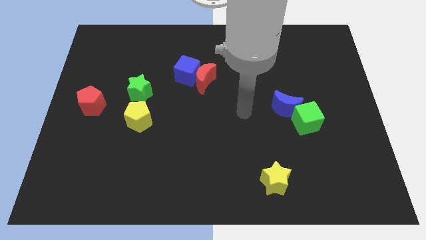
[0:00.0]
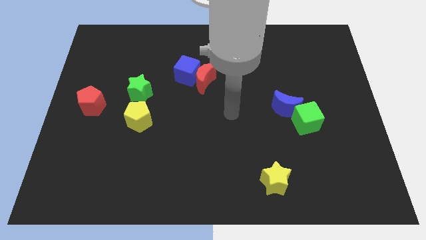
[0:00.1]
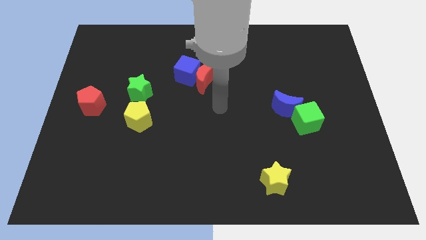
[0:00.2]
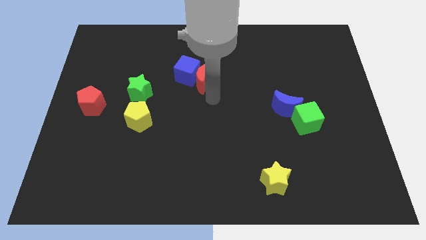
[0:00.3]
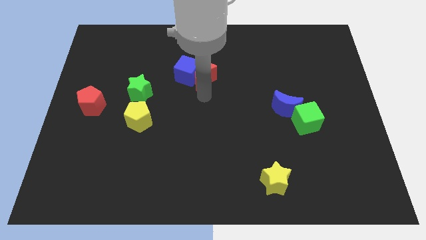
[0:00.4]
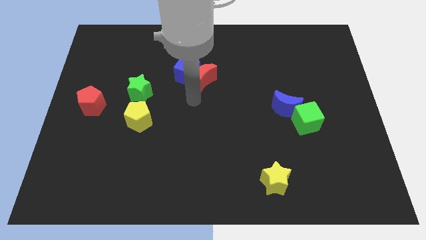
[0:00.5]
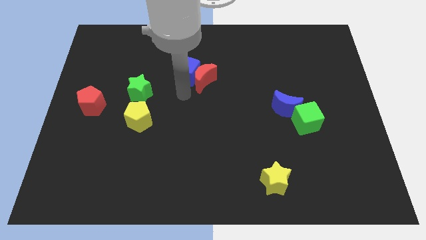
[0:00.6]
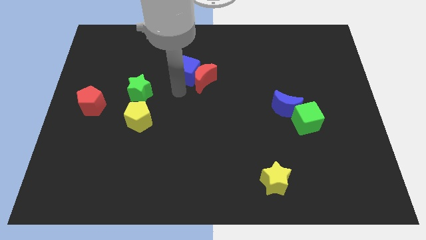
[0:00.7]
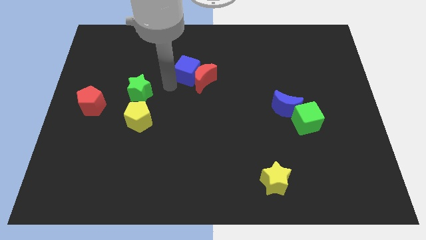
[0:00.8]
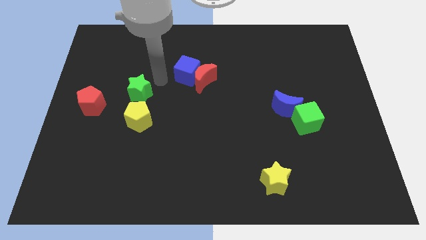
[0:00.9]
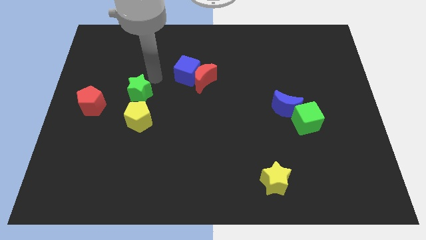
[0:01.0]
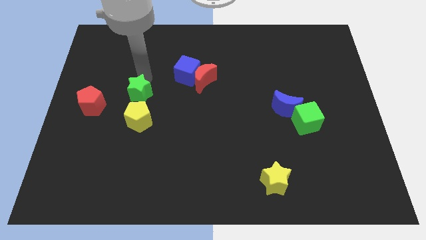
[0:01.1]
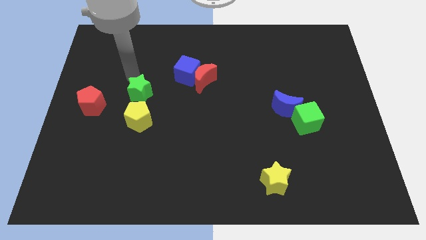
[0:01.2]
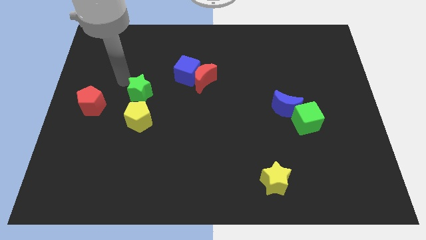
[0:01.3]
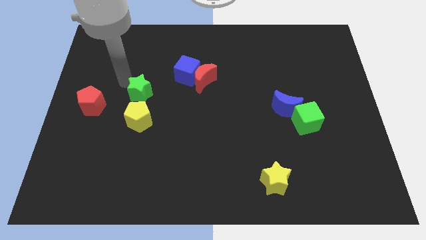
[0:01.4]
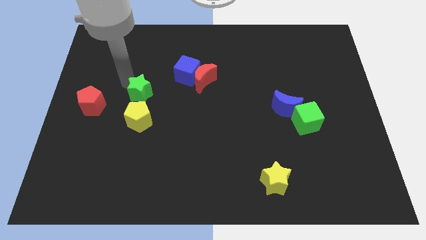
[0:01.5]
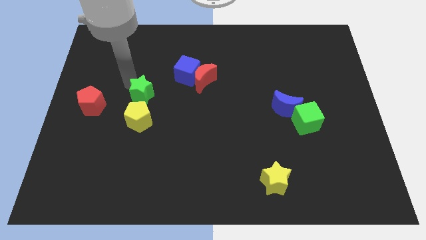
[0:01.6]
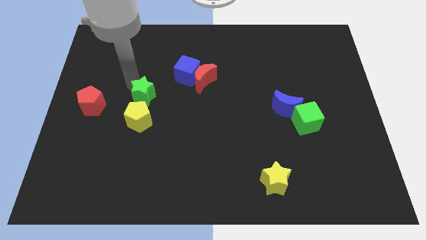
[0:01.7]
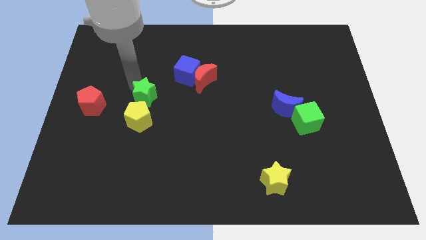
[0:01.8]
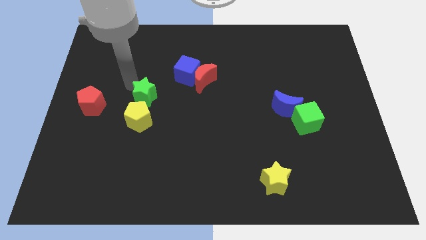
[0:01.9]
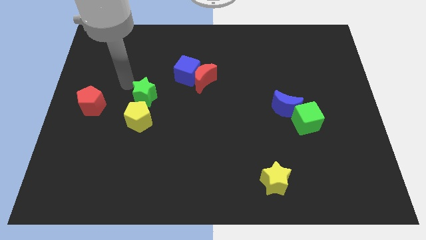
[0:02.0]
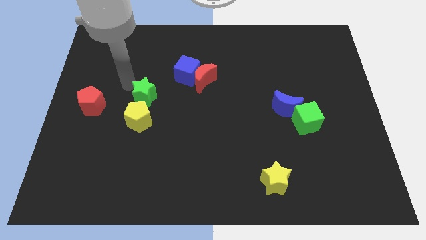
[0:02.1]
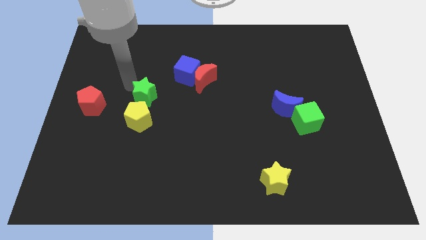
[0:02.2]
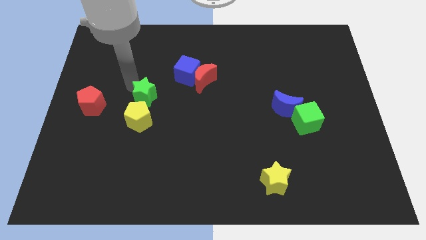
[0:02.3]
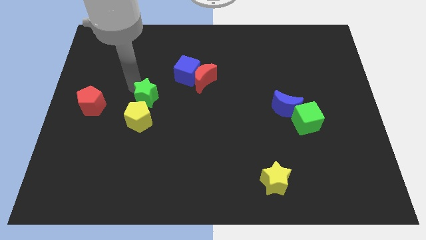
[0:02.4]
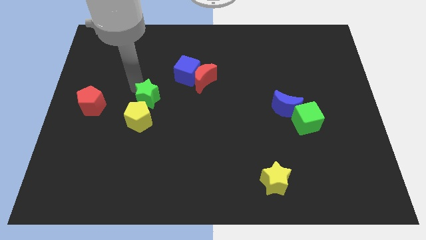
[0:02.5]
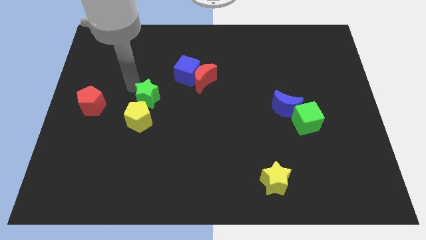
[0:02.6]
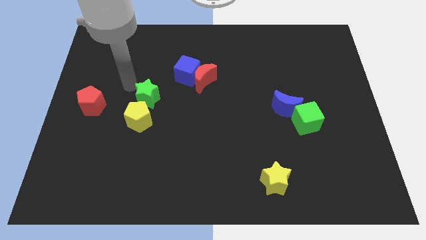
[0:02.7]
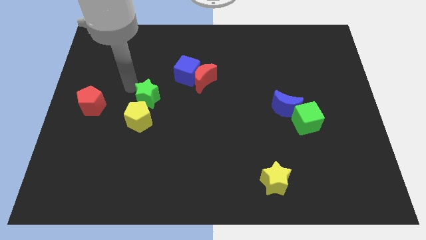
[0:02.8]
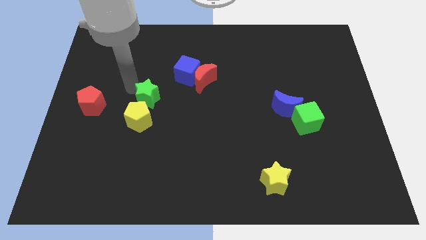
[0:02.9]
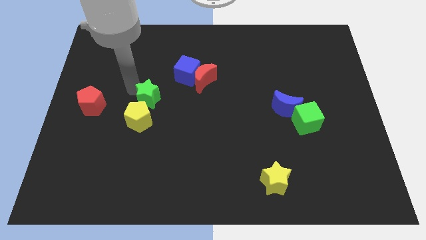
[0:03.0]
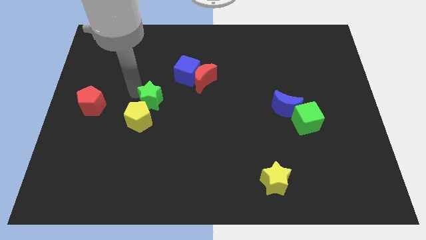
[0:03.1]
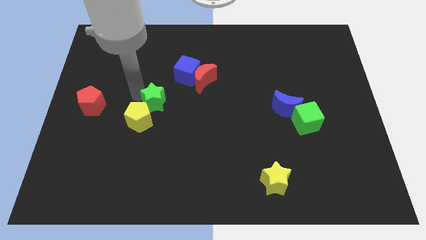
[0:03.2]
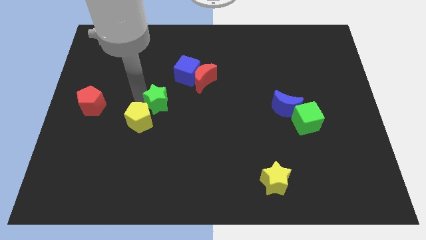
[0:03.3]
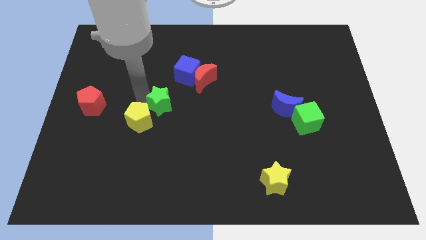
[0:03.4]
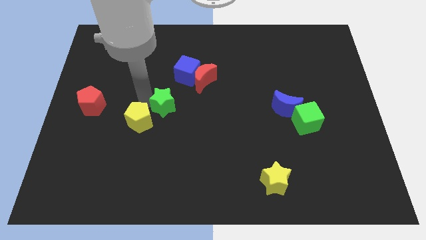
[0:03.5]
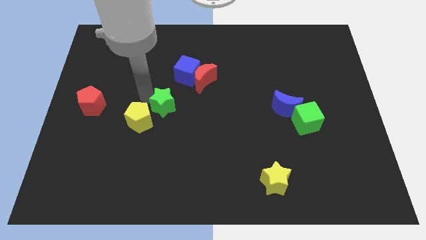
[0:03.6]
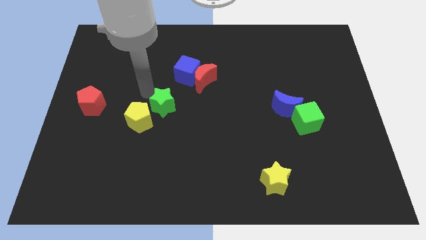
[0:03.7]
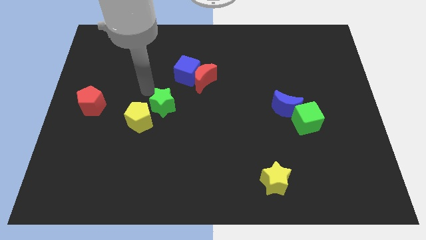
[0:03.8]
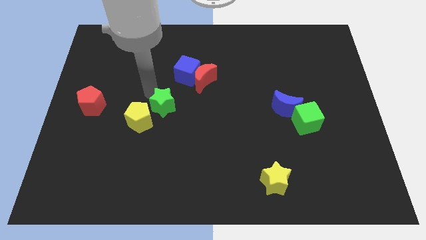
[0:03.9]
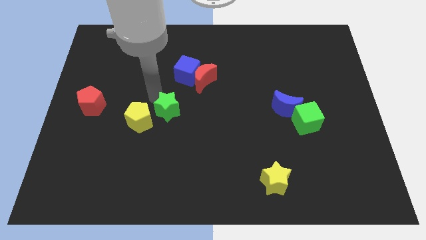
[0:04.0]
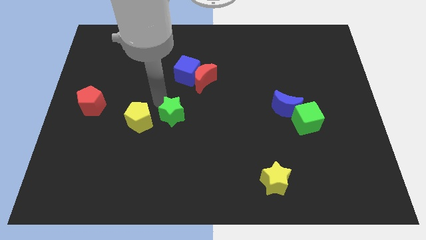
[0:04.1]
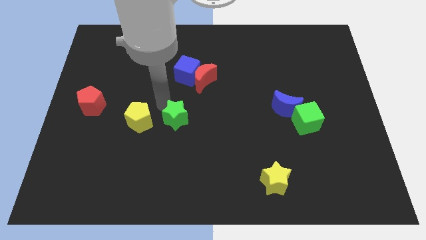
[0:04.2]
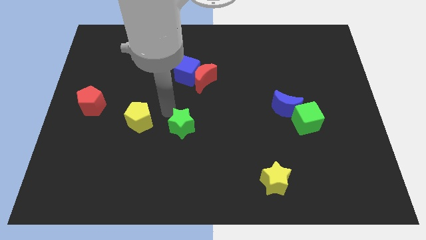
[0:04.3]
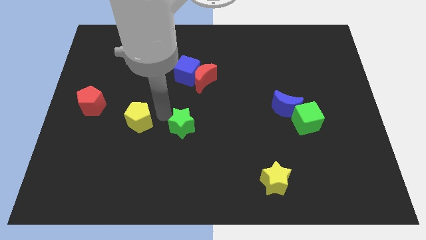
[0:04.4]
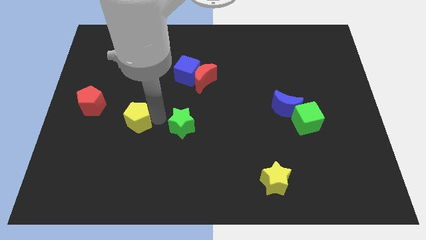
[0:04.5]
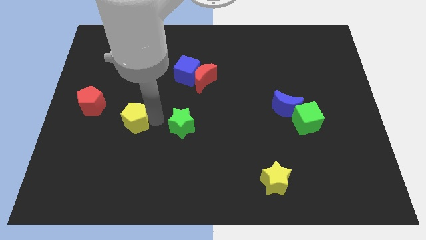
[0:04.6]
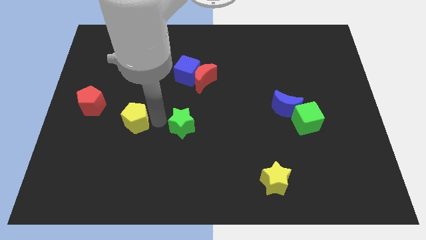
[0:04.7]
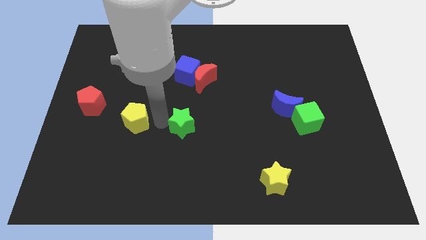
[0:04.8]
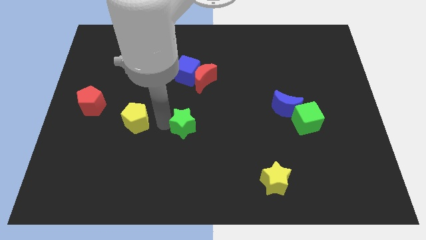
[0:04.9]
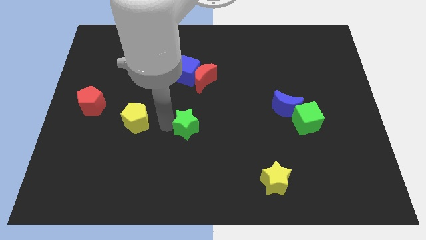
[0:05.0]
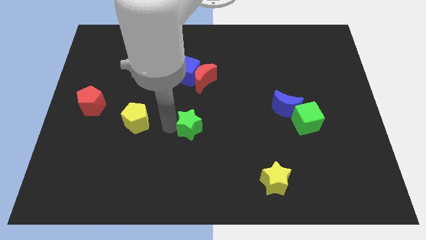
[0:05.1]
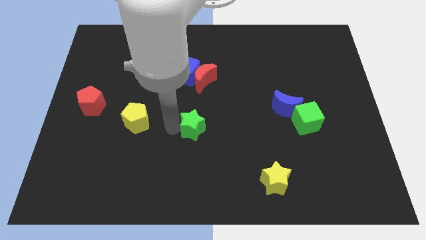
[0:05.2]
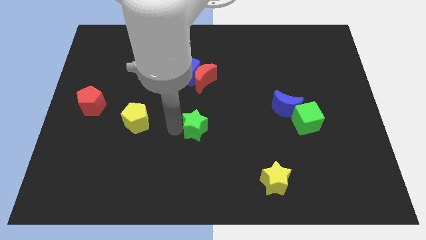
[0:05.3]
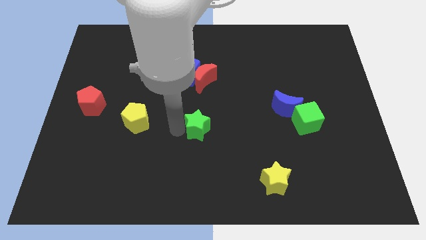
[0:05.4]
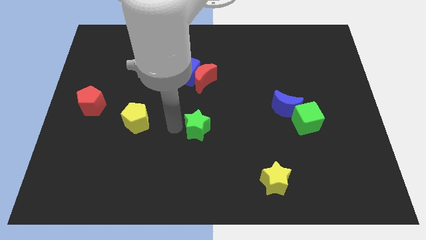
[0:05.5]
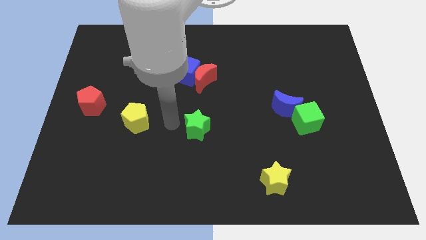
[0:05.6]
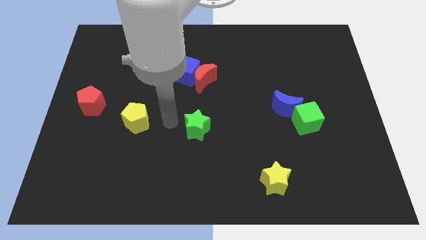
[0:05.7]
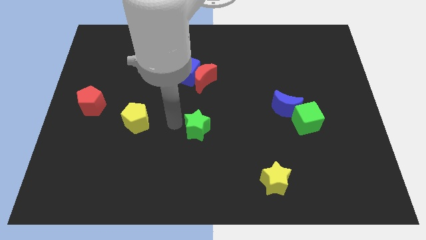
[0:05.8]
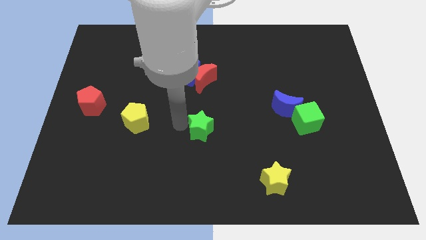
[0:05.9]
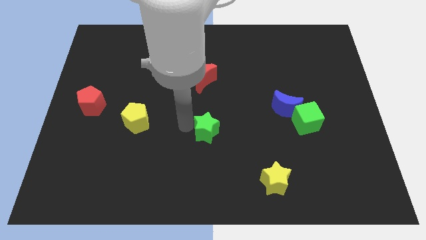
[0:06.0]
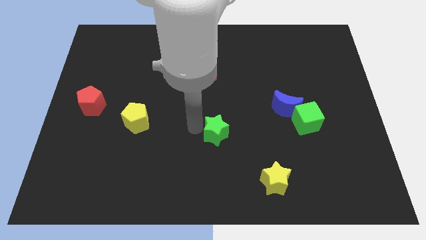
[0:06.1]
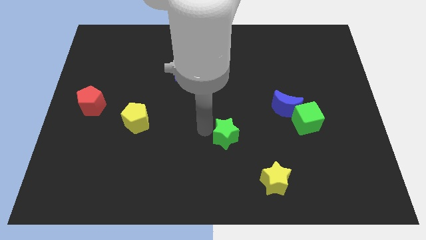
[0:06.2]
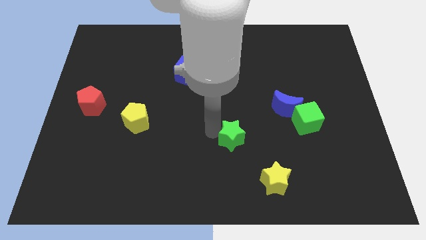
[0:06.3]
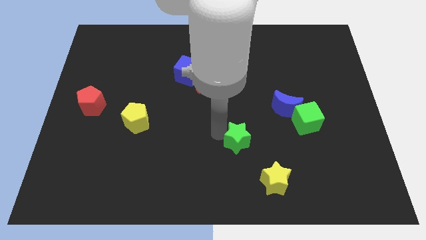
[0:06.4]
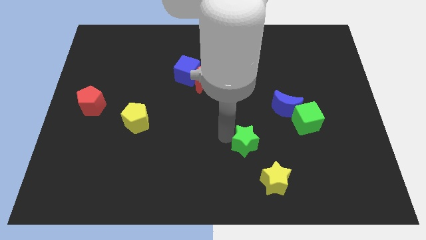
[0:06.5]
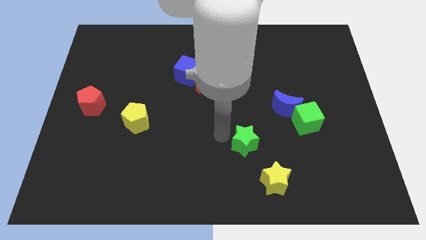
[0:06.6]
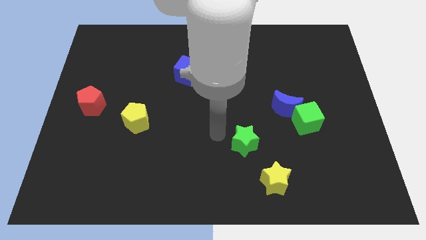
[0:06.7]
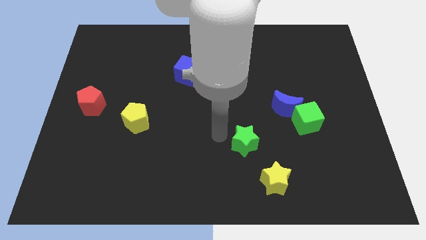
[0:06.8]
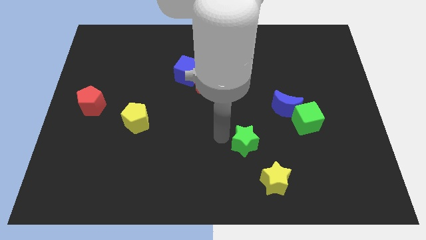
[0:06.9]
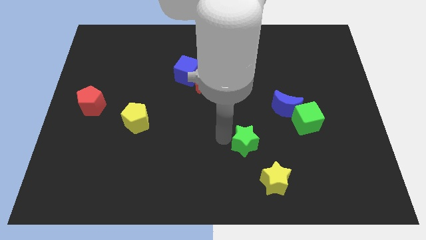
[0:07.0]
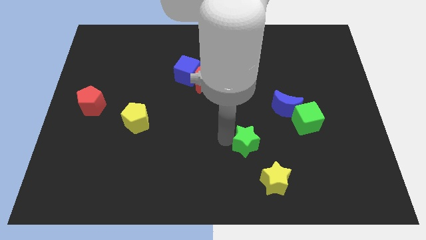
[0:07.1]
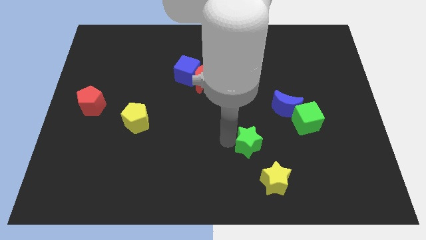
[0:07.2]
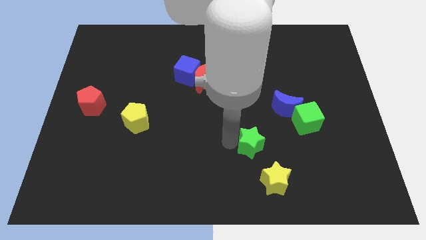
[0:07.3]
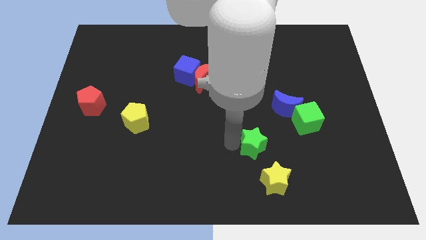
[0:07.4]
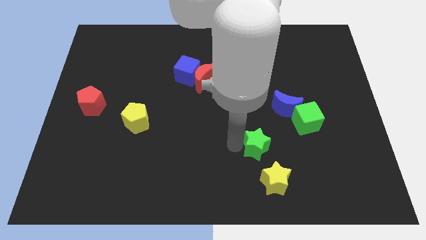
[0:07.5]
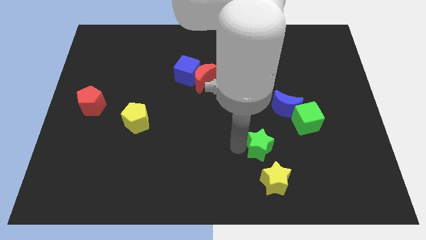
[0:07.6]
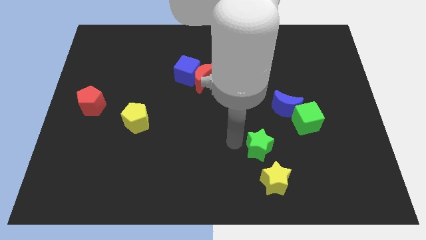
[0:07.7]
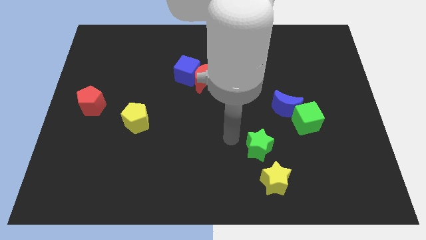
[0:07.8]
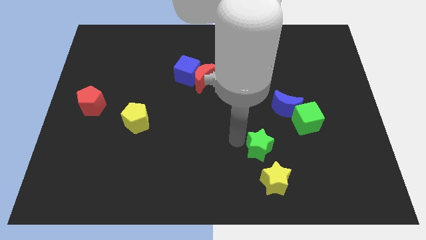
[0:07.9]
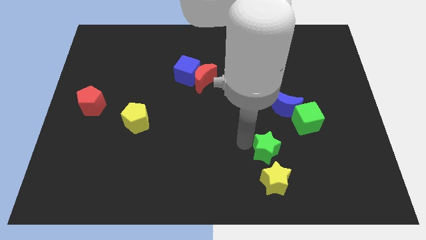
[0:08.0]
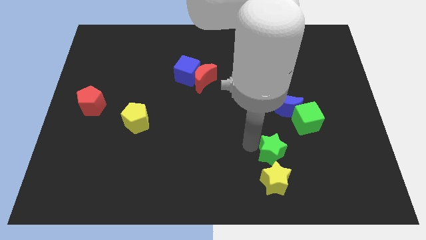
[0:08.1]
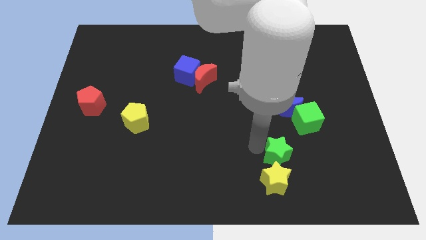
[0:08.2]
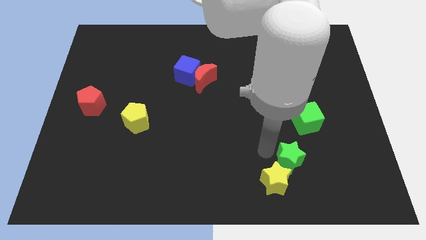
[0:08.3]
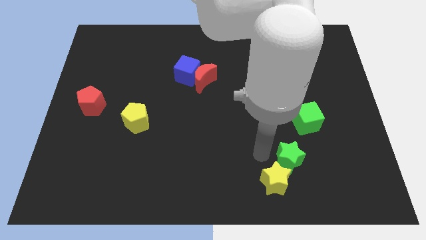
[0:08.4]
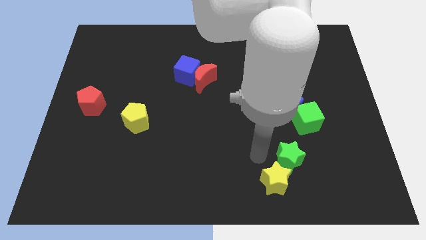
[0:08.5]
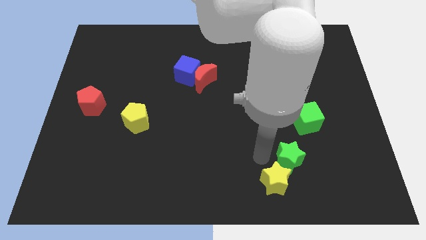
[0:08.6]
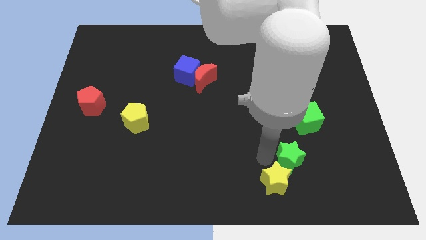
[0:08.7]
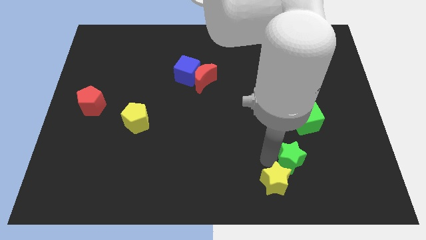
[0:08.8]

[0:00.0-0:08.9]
slide the green star below the green cube
